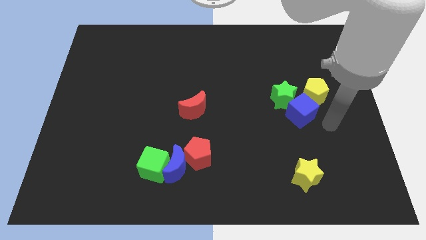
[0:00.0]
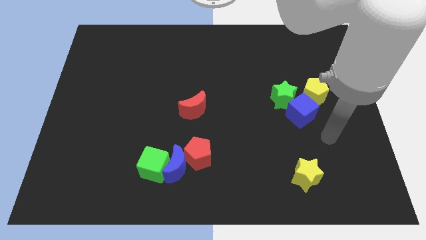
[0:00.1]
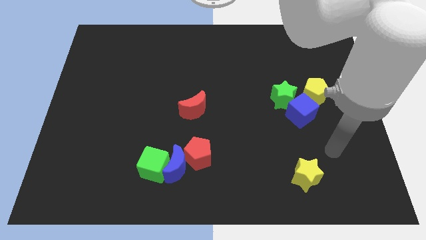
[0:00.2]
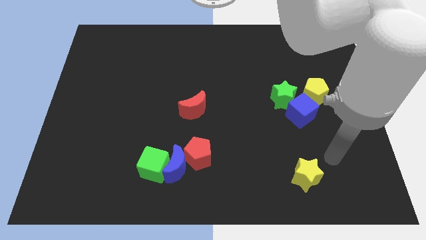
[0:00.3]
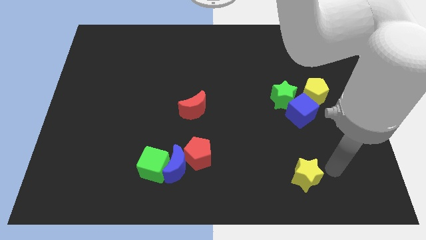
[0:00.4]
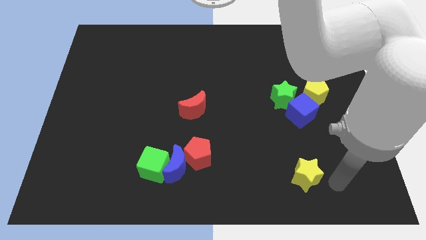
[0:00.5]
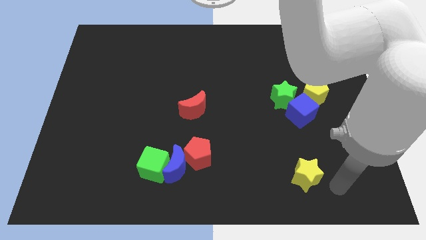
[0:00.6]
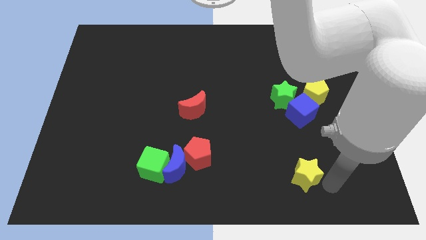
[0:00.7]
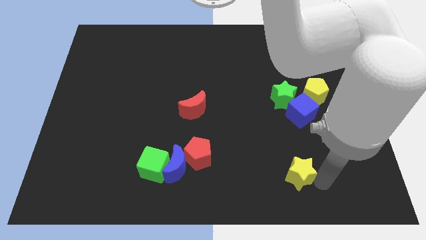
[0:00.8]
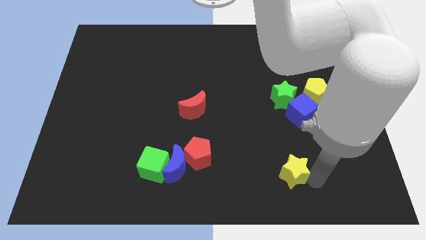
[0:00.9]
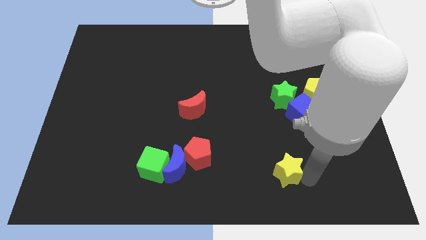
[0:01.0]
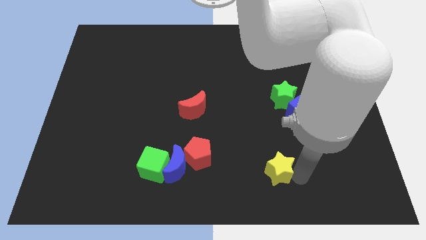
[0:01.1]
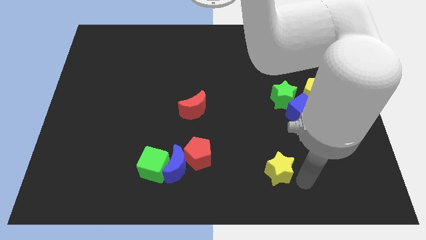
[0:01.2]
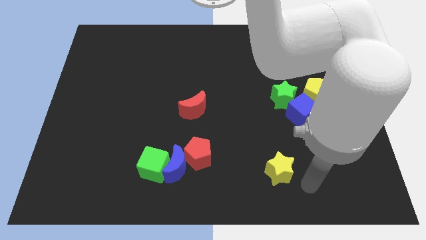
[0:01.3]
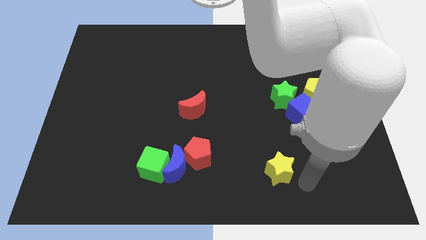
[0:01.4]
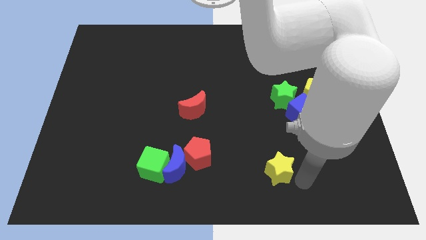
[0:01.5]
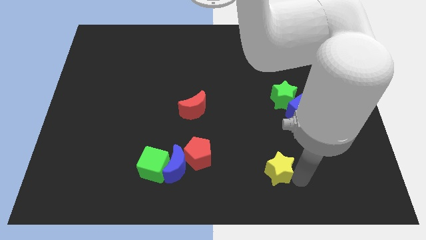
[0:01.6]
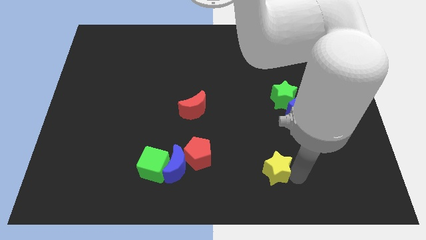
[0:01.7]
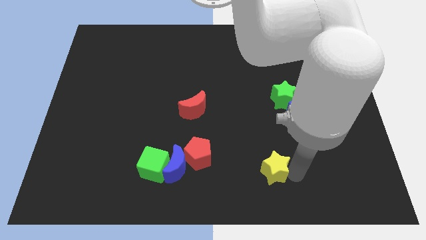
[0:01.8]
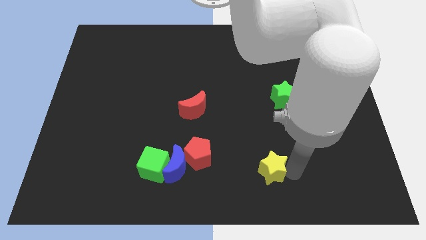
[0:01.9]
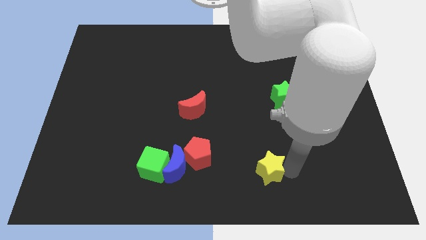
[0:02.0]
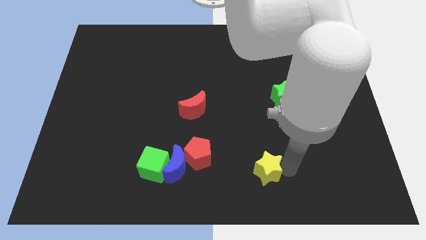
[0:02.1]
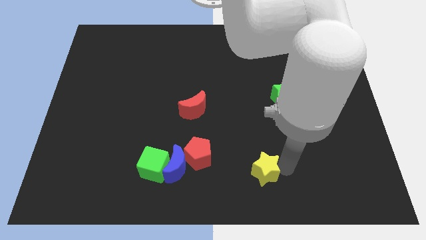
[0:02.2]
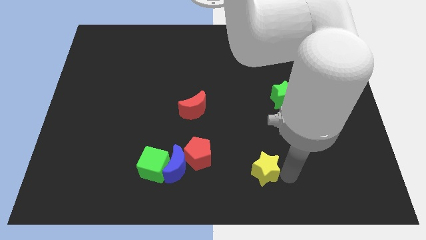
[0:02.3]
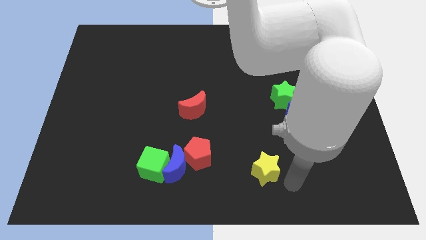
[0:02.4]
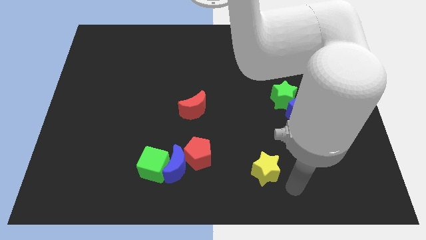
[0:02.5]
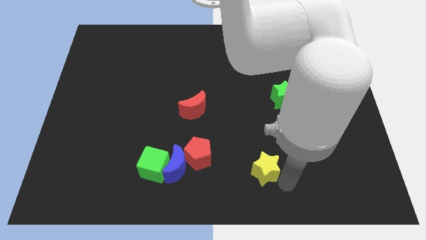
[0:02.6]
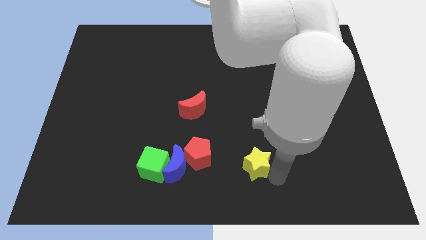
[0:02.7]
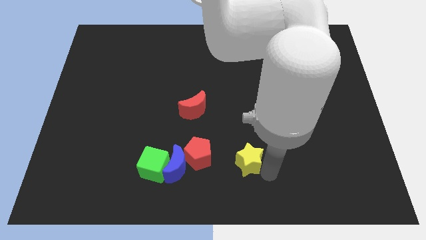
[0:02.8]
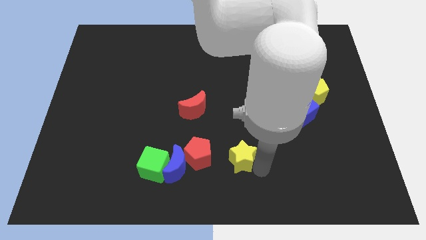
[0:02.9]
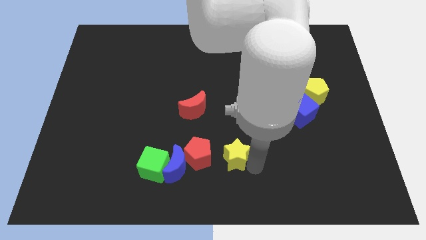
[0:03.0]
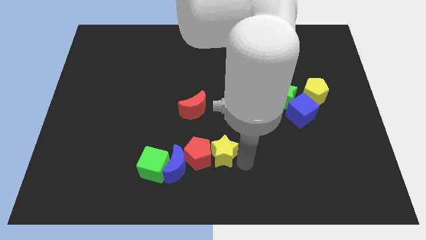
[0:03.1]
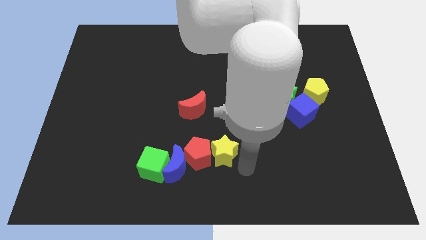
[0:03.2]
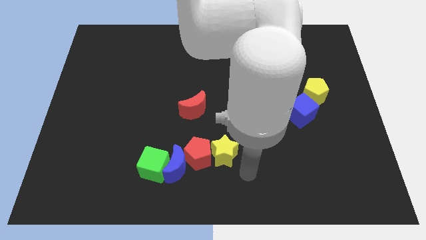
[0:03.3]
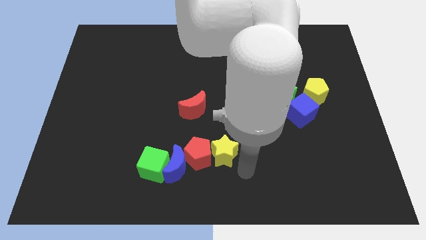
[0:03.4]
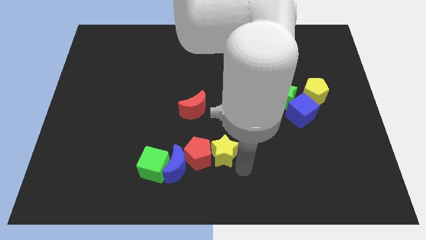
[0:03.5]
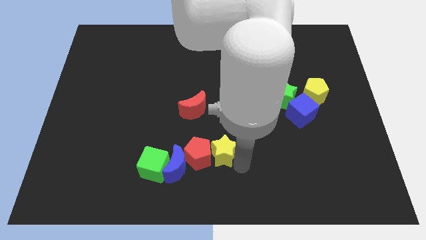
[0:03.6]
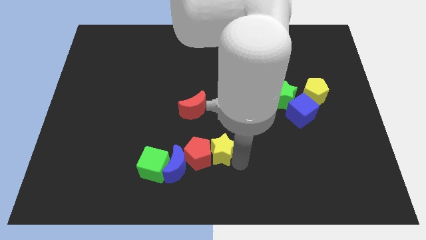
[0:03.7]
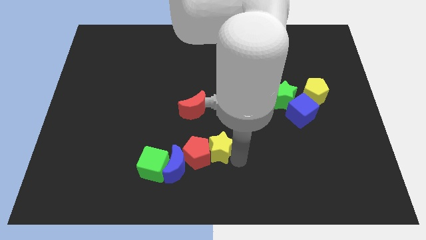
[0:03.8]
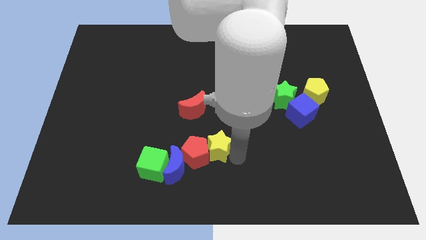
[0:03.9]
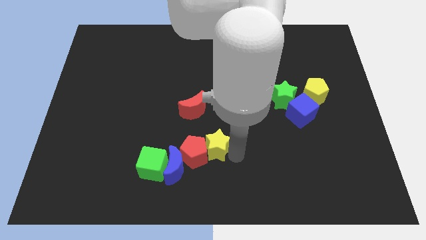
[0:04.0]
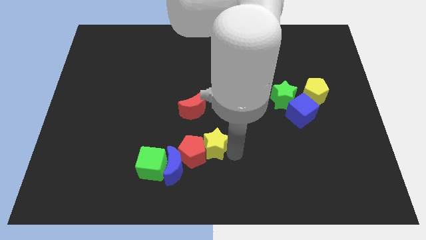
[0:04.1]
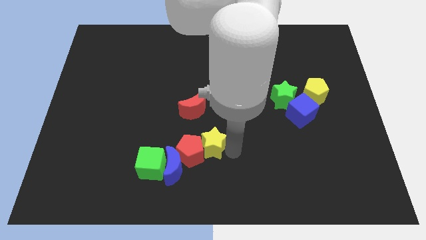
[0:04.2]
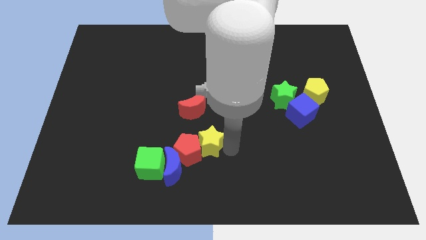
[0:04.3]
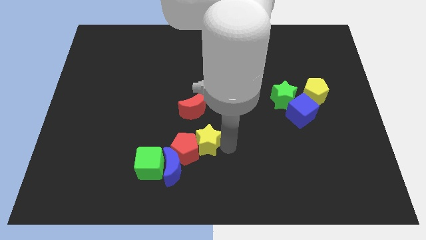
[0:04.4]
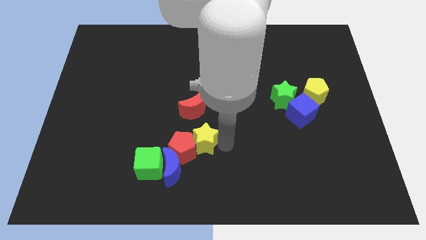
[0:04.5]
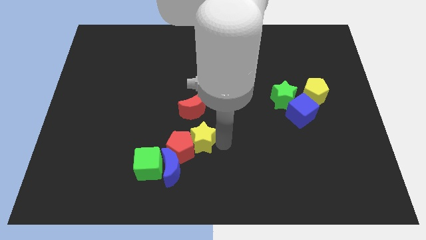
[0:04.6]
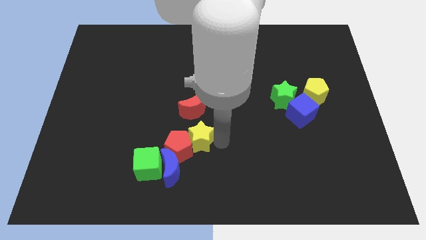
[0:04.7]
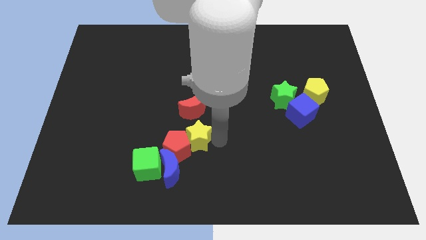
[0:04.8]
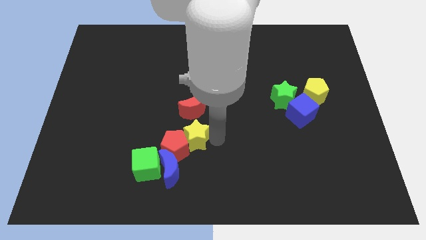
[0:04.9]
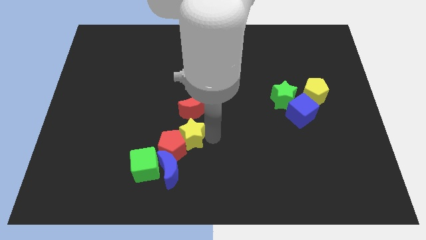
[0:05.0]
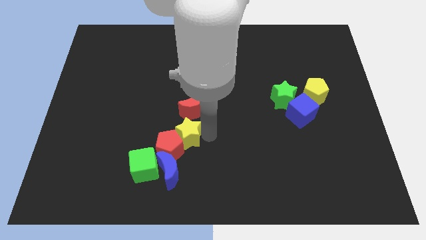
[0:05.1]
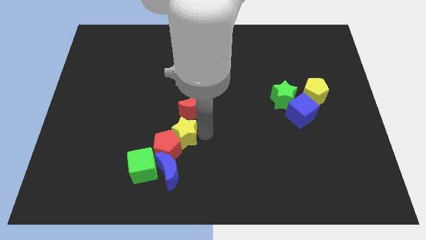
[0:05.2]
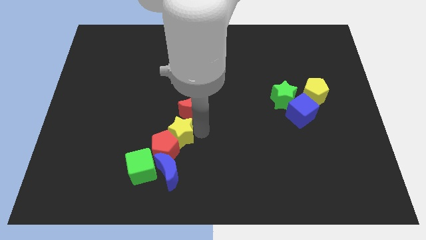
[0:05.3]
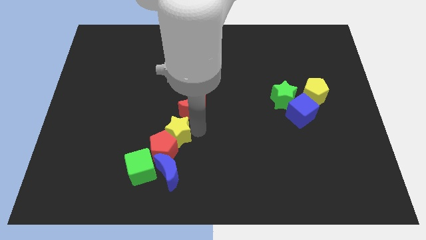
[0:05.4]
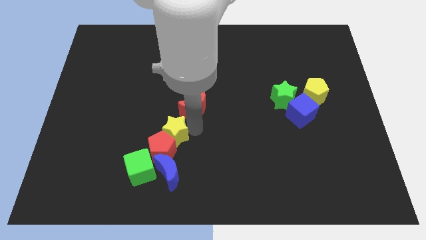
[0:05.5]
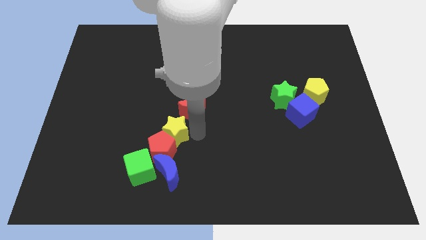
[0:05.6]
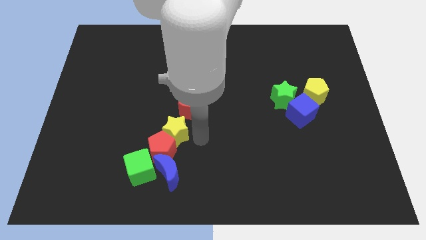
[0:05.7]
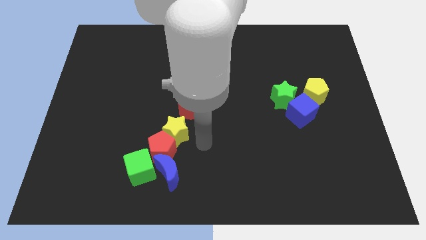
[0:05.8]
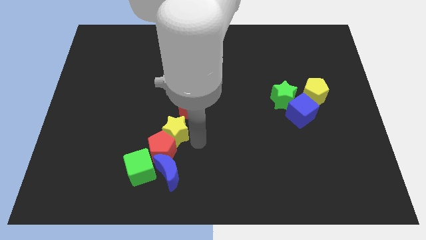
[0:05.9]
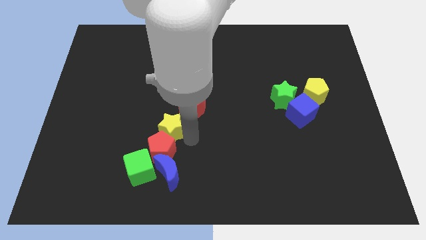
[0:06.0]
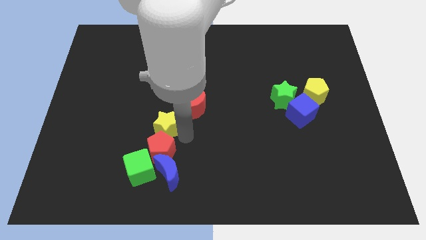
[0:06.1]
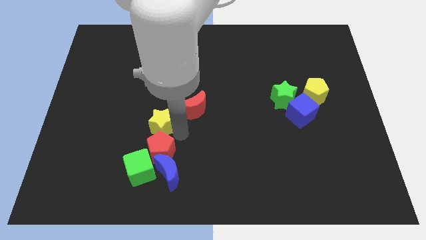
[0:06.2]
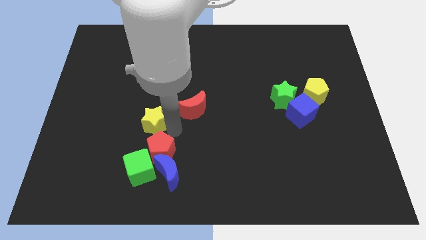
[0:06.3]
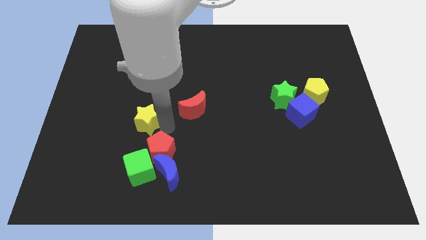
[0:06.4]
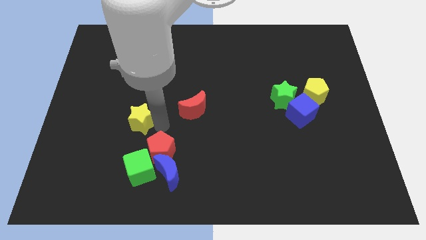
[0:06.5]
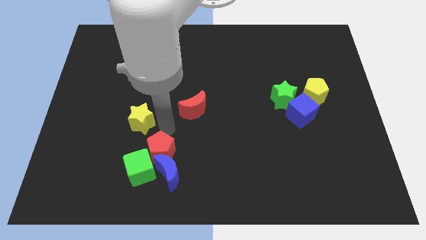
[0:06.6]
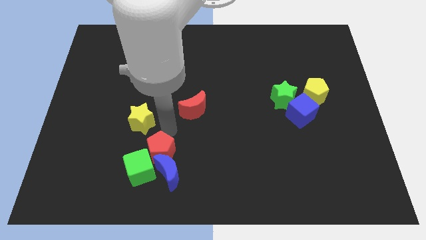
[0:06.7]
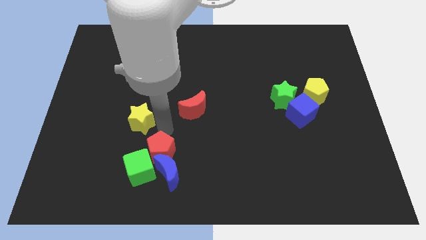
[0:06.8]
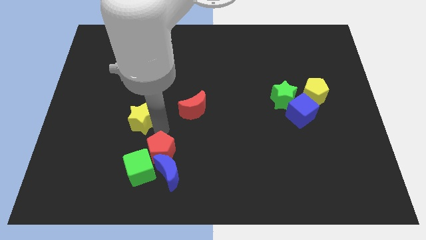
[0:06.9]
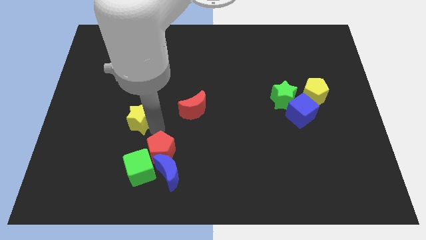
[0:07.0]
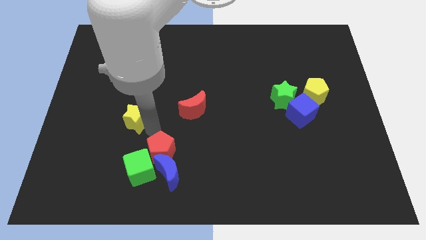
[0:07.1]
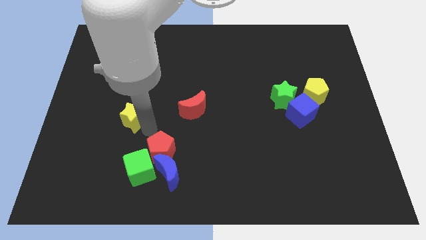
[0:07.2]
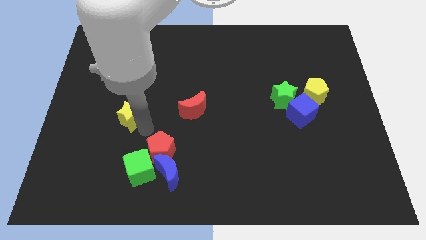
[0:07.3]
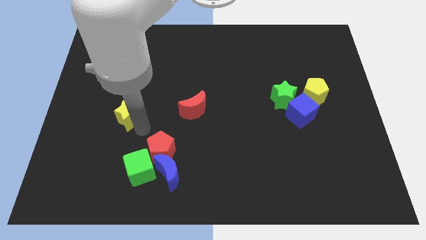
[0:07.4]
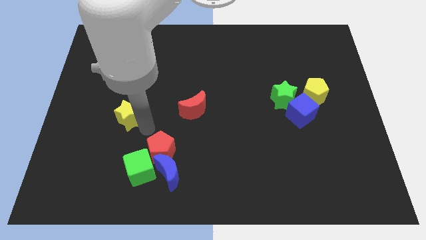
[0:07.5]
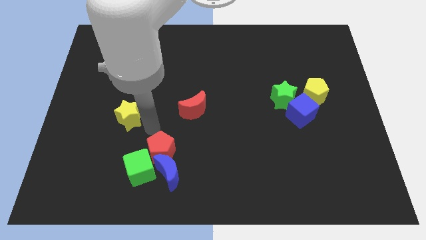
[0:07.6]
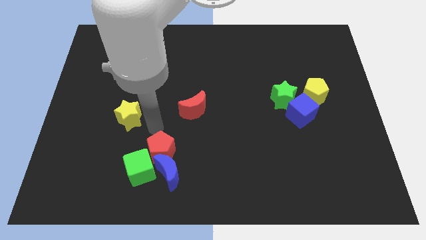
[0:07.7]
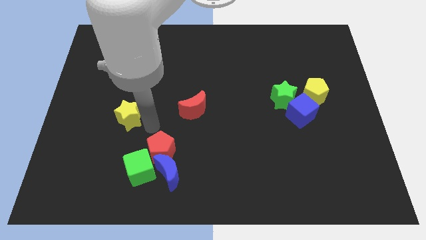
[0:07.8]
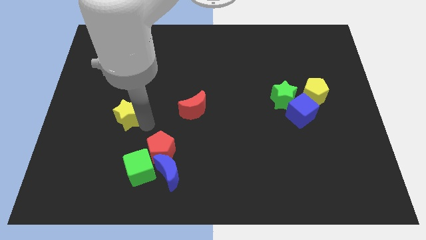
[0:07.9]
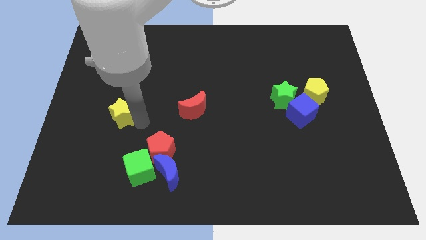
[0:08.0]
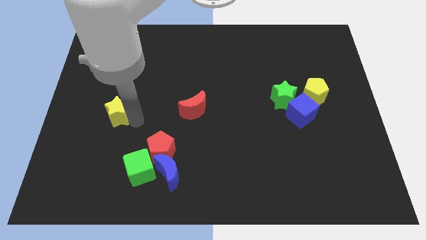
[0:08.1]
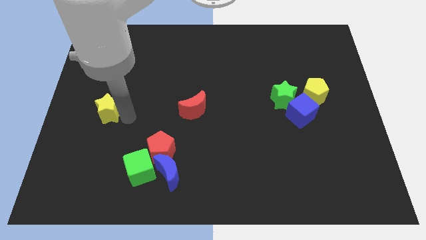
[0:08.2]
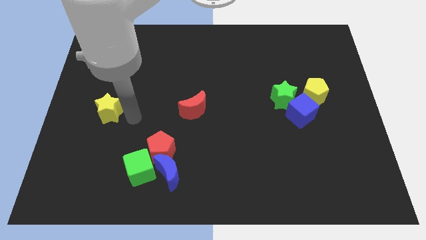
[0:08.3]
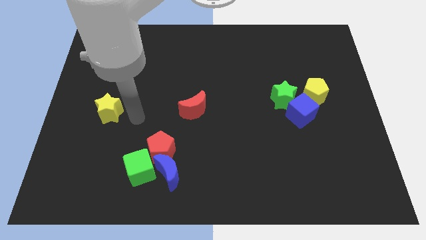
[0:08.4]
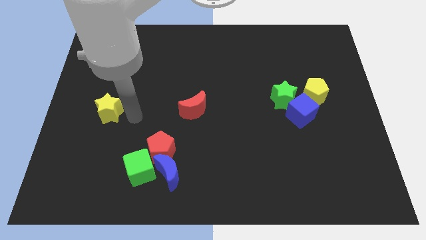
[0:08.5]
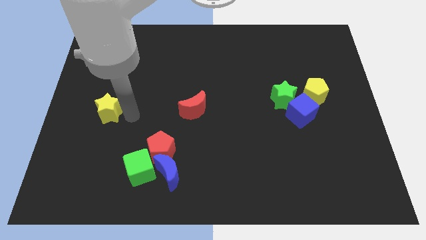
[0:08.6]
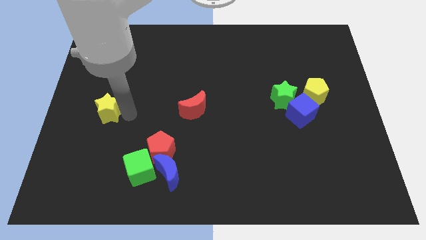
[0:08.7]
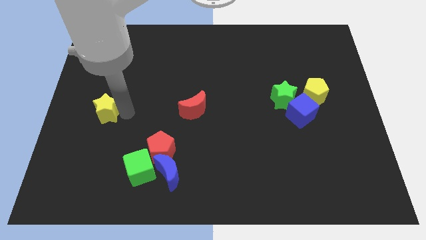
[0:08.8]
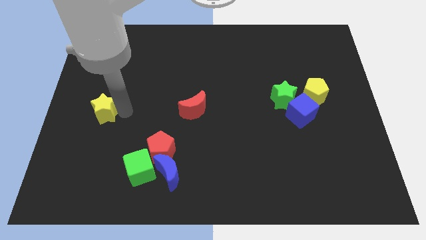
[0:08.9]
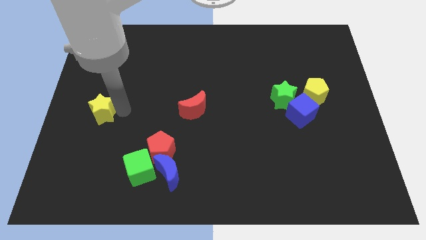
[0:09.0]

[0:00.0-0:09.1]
push the yellow star to the left side
